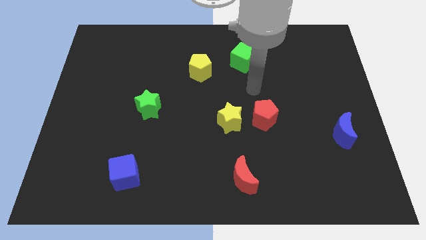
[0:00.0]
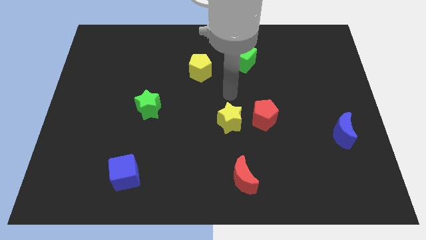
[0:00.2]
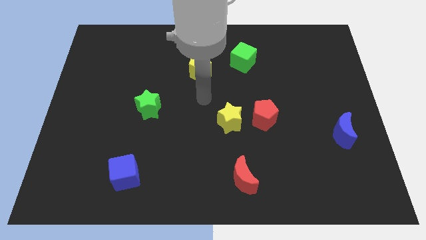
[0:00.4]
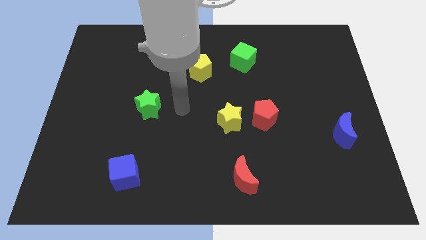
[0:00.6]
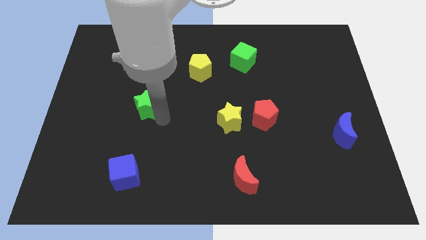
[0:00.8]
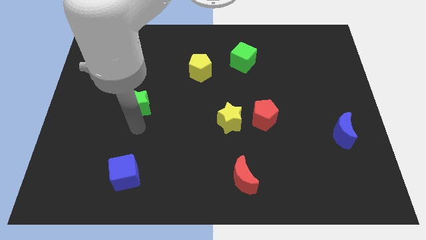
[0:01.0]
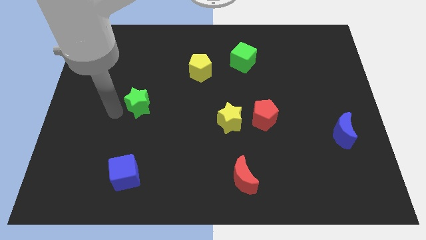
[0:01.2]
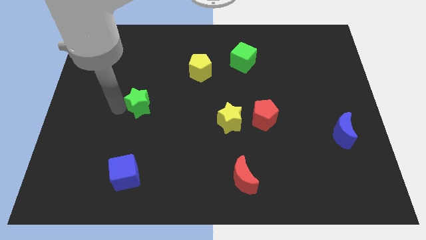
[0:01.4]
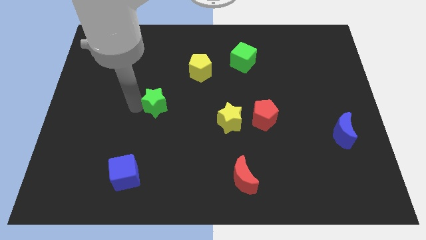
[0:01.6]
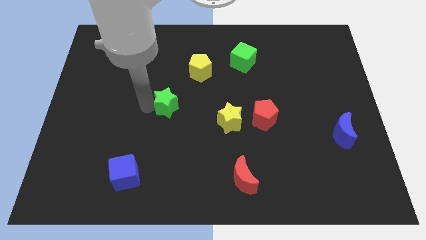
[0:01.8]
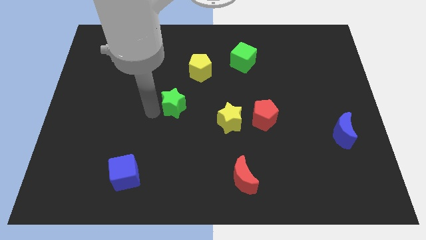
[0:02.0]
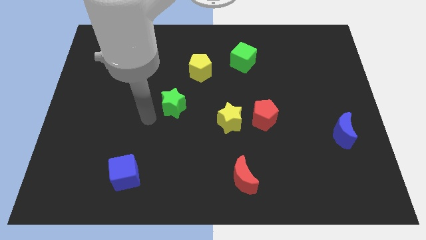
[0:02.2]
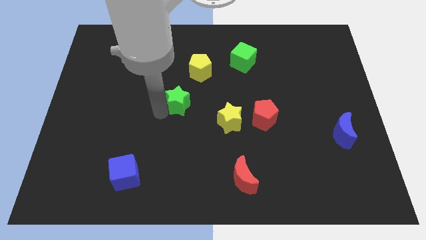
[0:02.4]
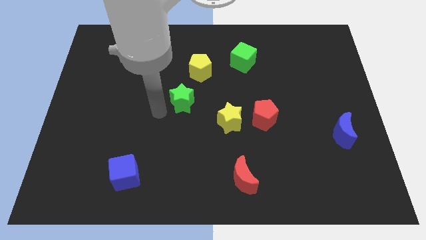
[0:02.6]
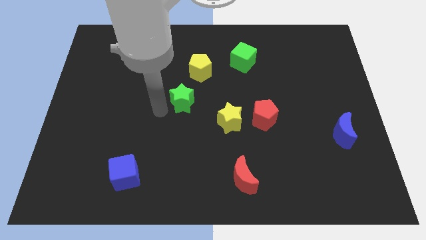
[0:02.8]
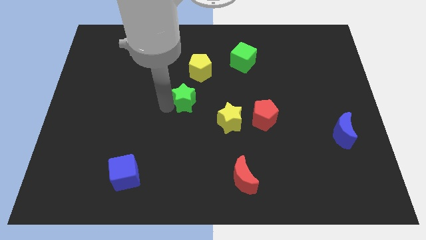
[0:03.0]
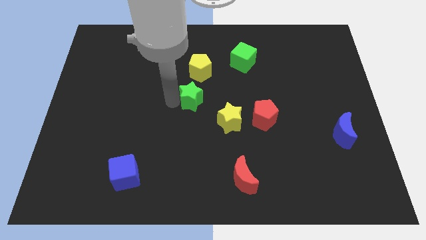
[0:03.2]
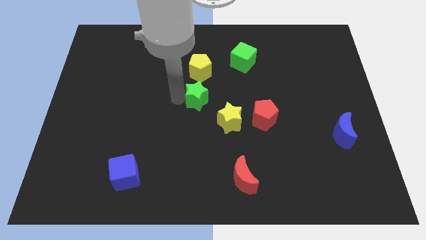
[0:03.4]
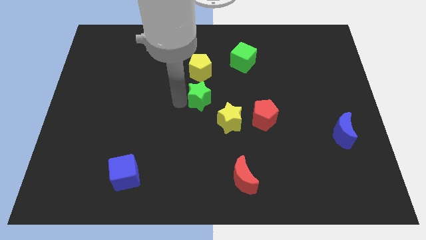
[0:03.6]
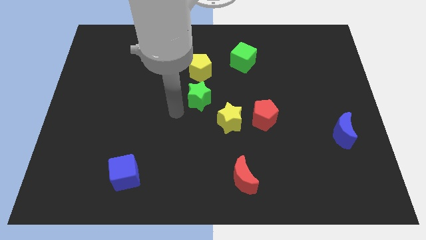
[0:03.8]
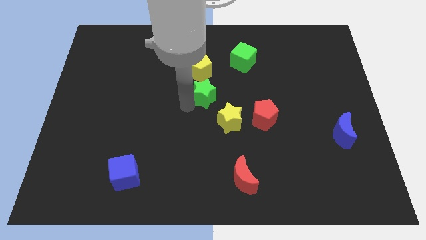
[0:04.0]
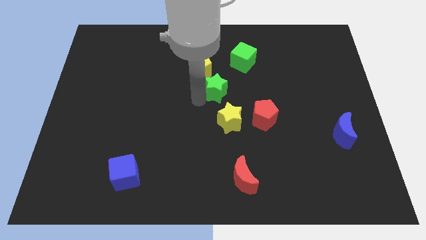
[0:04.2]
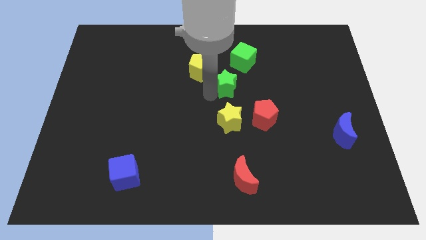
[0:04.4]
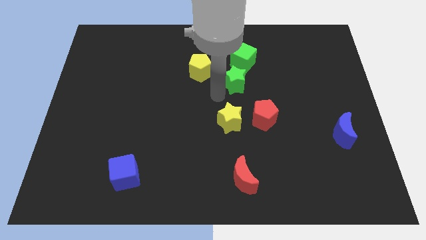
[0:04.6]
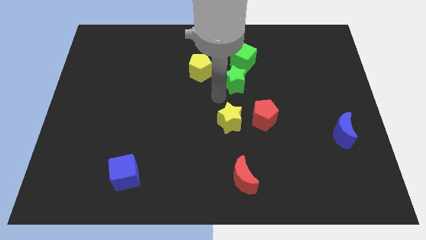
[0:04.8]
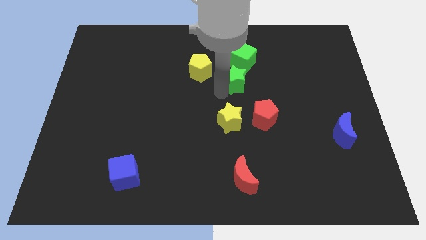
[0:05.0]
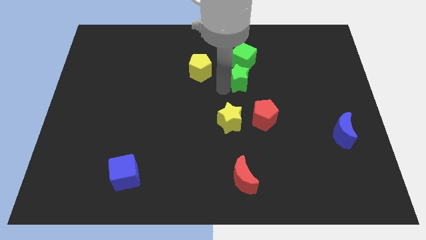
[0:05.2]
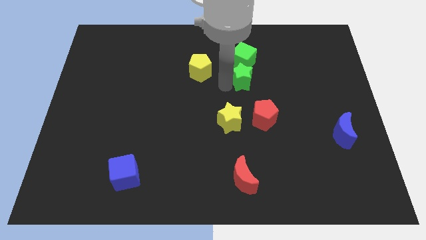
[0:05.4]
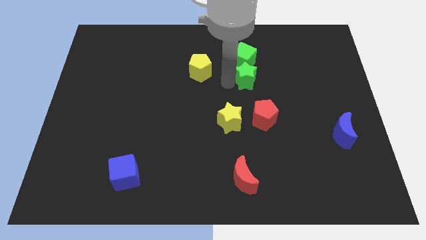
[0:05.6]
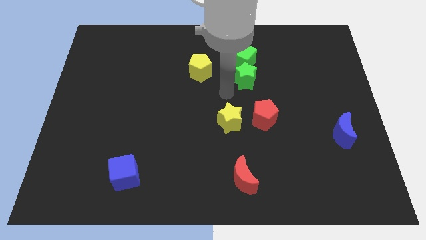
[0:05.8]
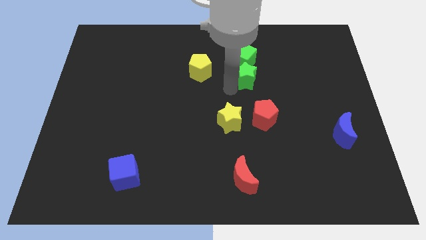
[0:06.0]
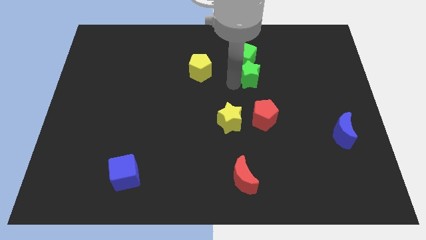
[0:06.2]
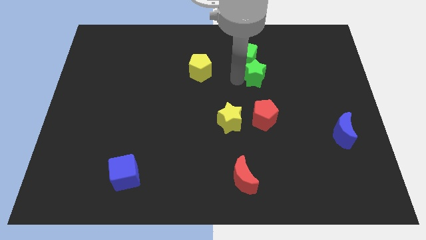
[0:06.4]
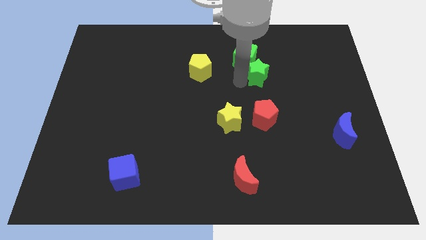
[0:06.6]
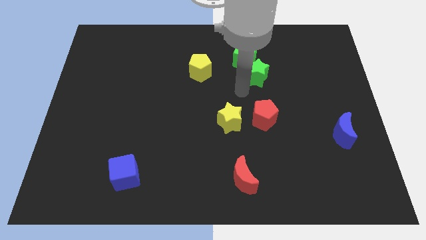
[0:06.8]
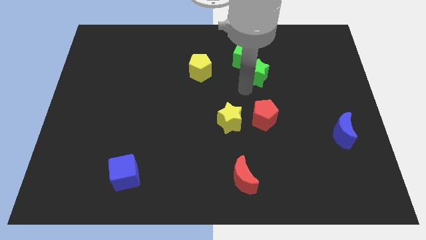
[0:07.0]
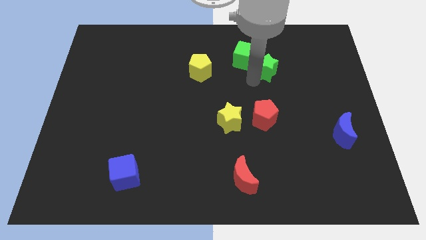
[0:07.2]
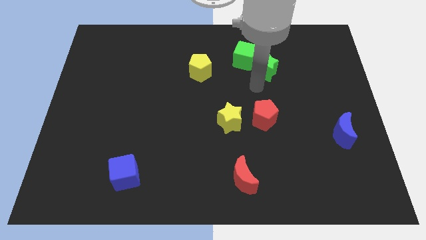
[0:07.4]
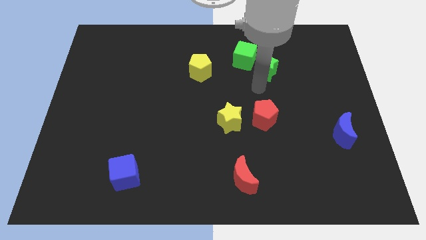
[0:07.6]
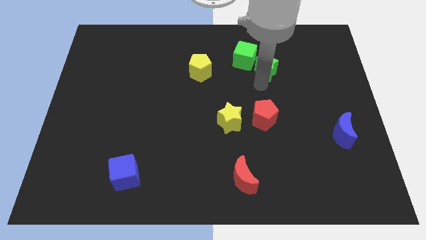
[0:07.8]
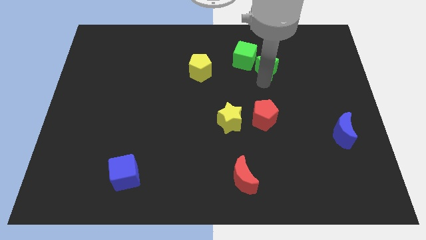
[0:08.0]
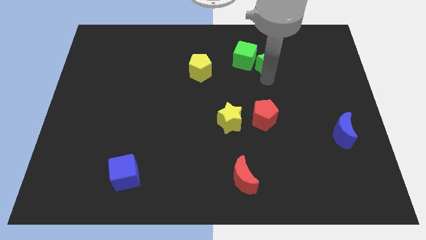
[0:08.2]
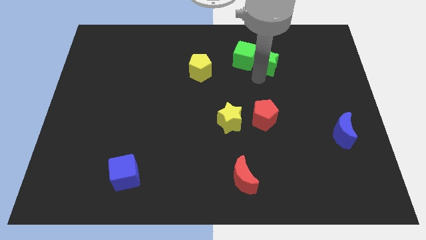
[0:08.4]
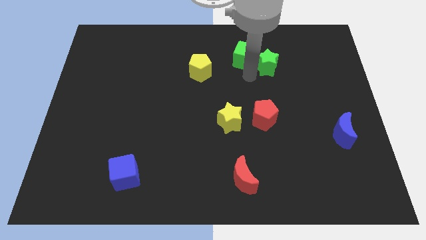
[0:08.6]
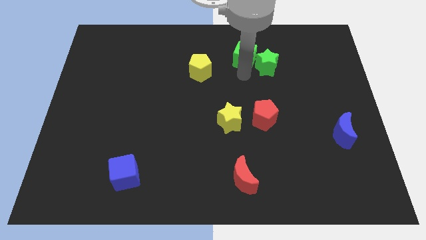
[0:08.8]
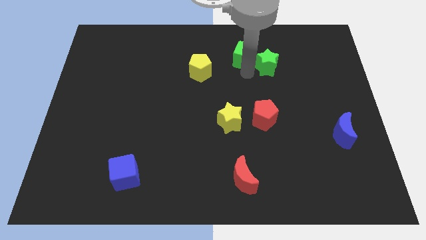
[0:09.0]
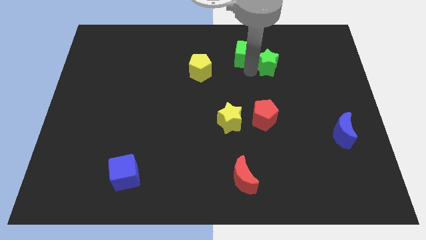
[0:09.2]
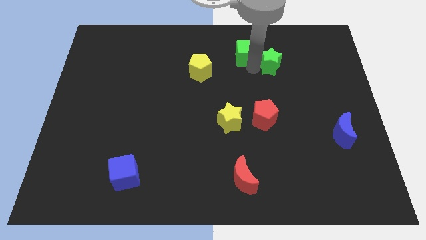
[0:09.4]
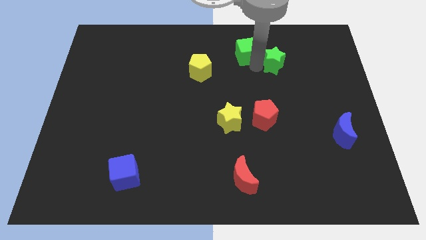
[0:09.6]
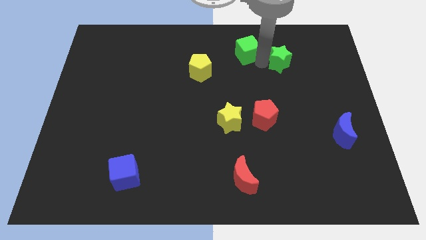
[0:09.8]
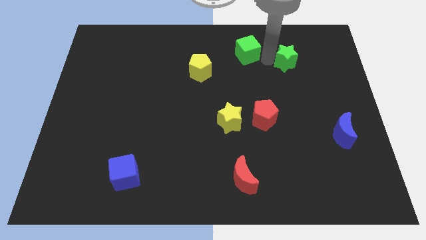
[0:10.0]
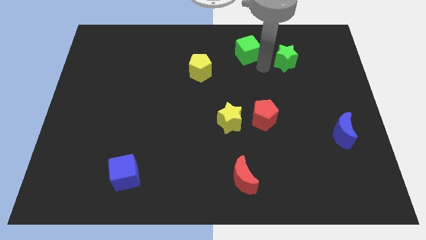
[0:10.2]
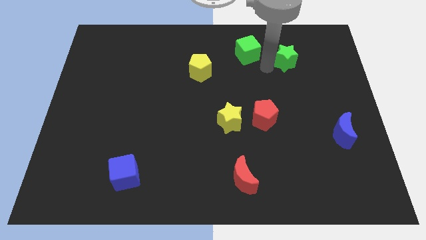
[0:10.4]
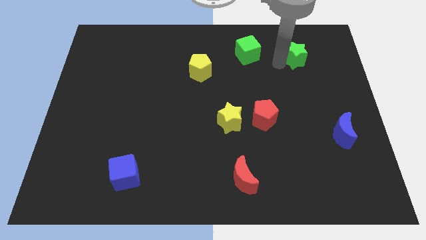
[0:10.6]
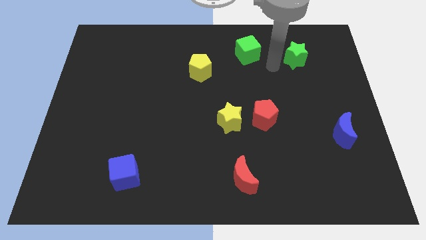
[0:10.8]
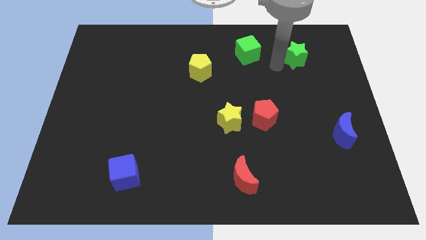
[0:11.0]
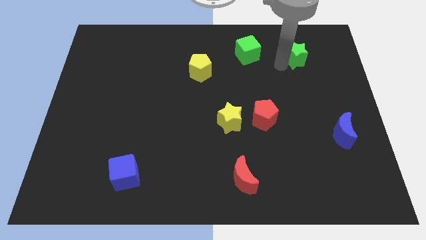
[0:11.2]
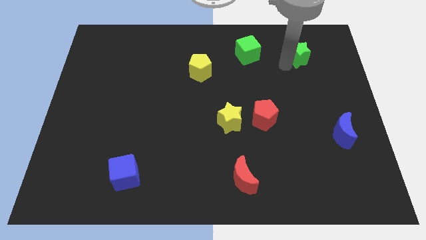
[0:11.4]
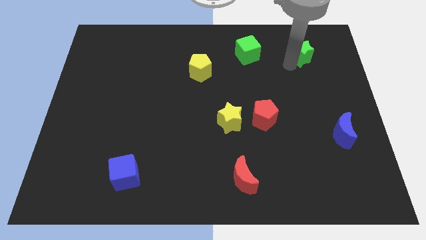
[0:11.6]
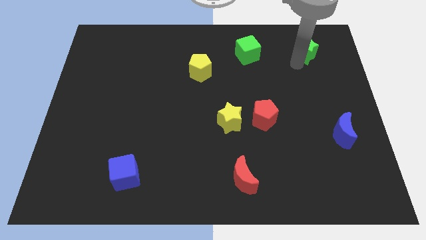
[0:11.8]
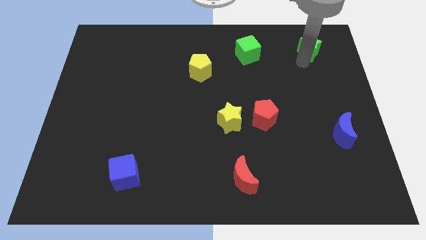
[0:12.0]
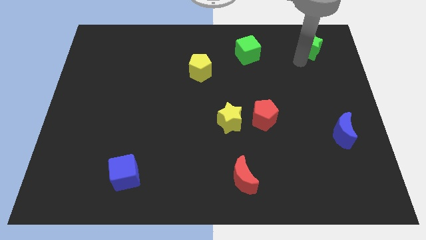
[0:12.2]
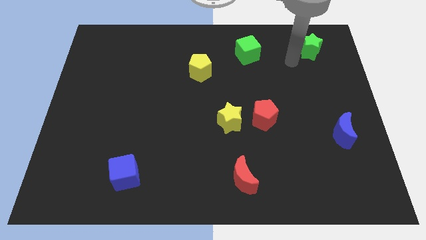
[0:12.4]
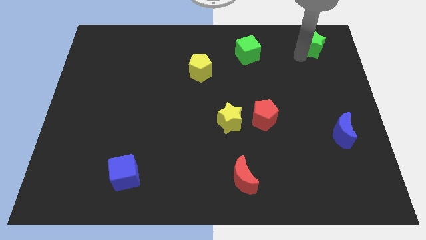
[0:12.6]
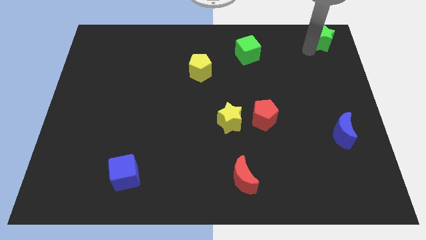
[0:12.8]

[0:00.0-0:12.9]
put the green star to the top right of the board

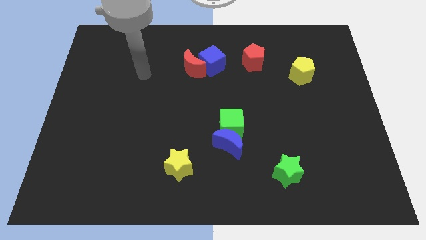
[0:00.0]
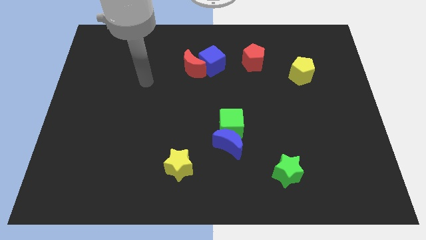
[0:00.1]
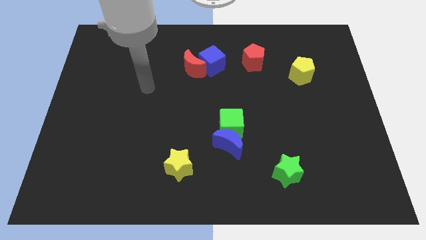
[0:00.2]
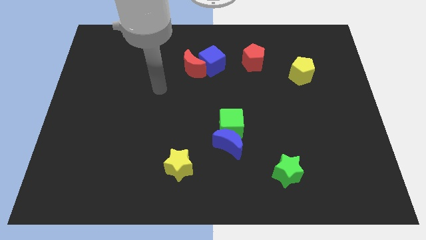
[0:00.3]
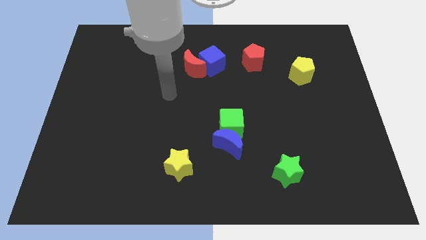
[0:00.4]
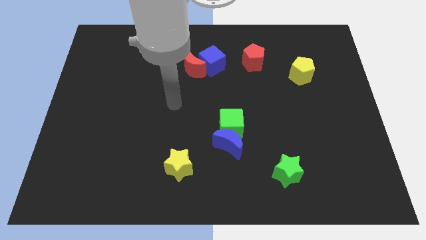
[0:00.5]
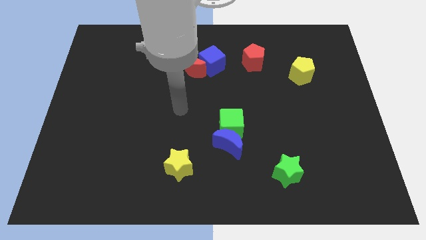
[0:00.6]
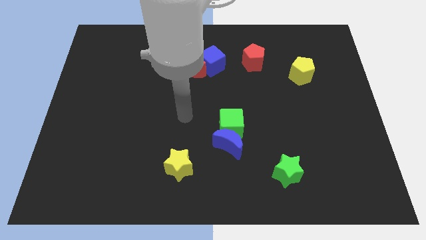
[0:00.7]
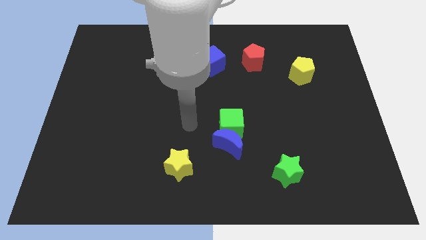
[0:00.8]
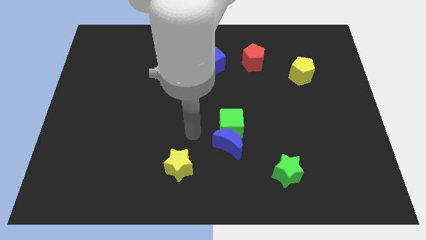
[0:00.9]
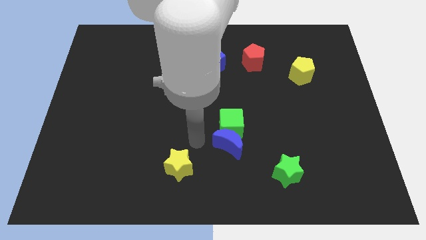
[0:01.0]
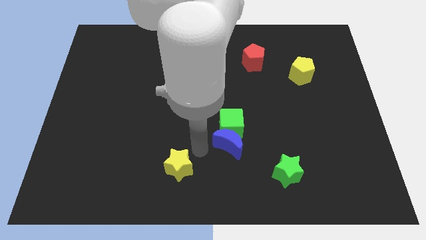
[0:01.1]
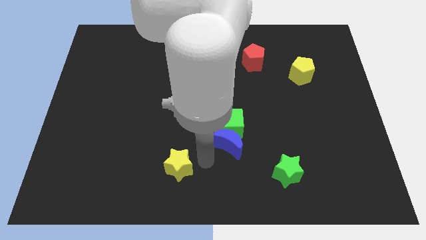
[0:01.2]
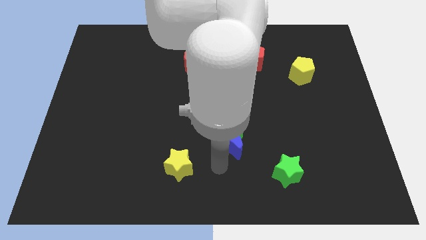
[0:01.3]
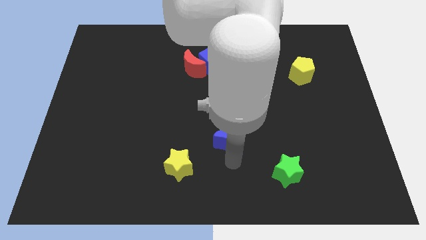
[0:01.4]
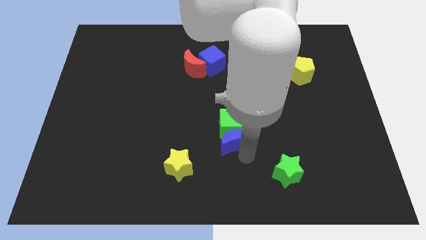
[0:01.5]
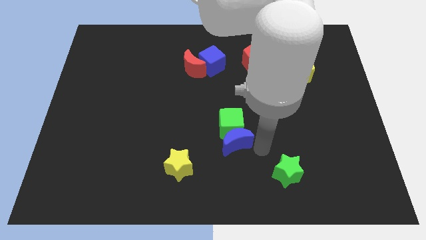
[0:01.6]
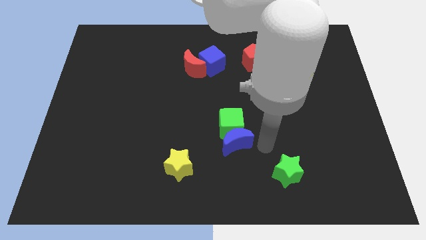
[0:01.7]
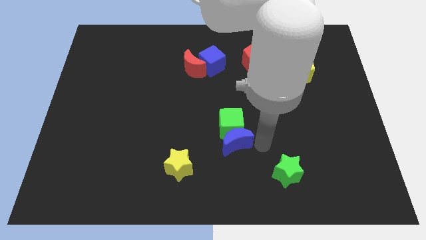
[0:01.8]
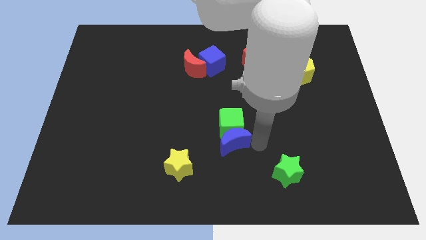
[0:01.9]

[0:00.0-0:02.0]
move the blue moon to the center of the board
